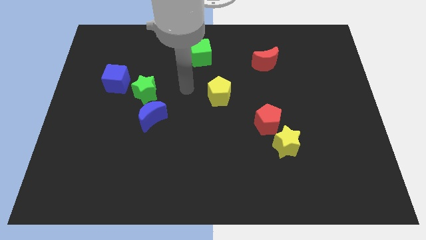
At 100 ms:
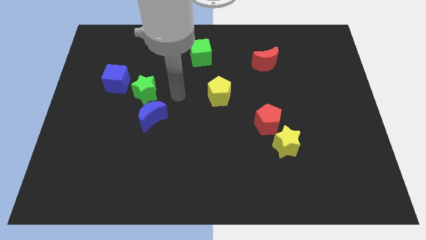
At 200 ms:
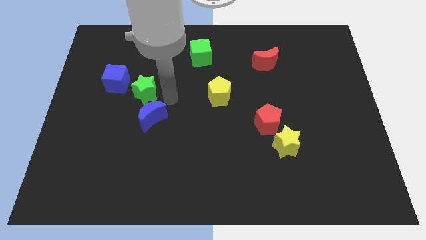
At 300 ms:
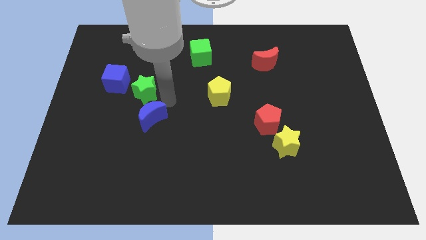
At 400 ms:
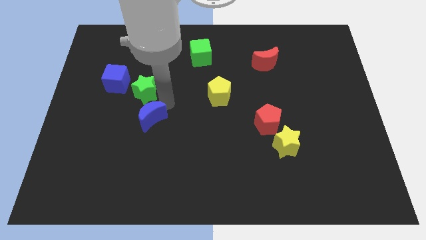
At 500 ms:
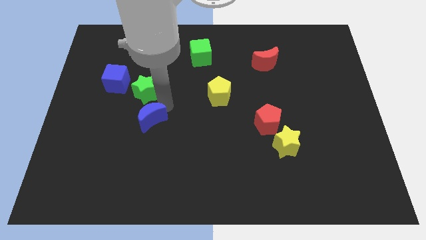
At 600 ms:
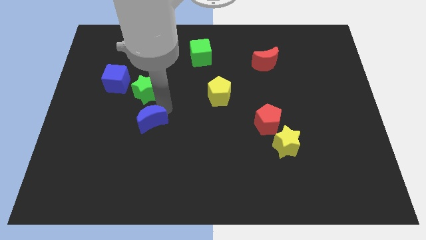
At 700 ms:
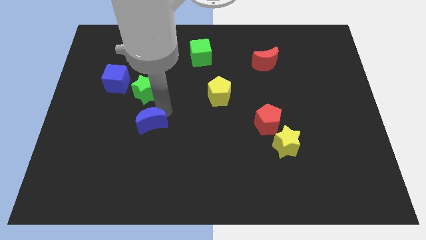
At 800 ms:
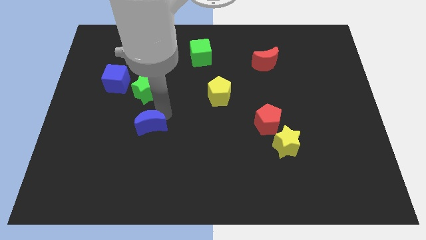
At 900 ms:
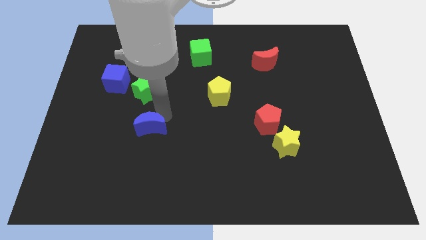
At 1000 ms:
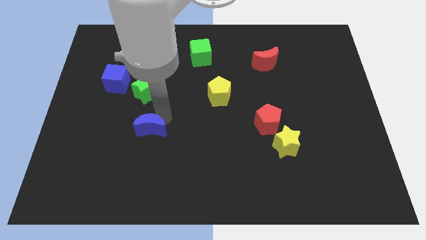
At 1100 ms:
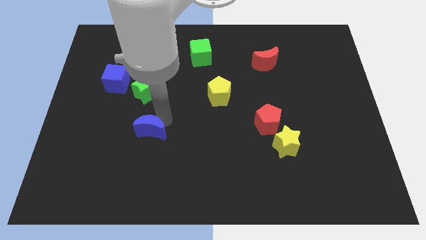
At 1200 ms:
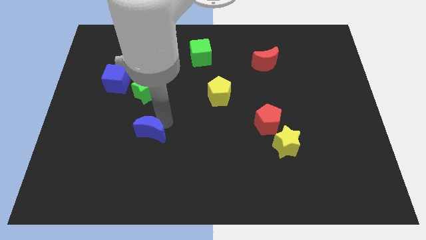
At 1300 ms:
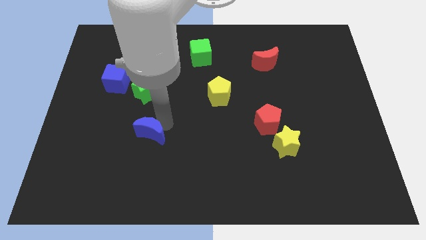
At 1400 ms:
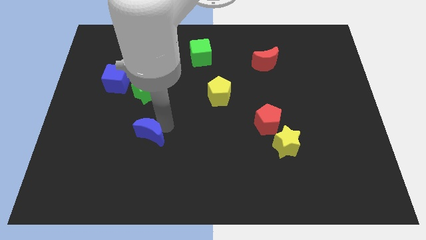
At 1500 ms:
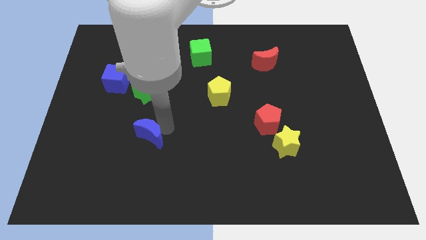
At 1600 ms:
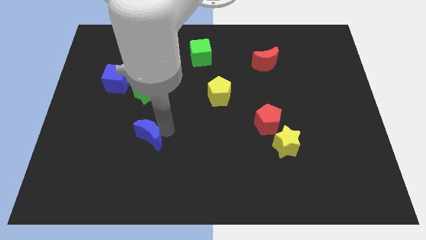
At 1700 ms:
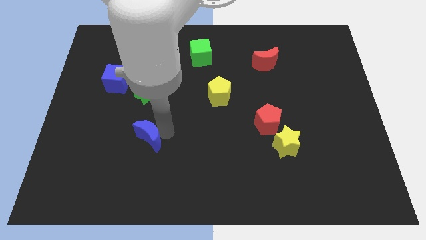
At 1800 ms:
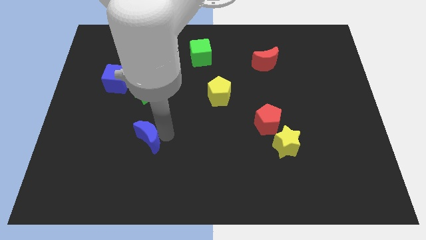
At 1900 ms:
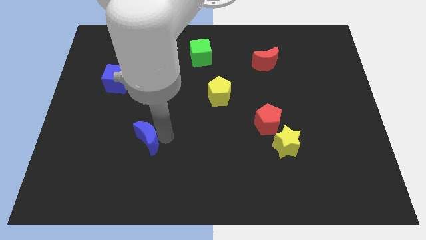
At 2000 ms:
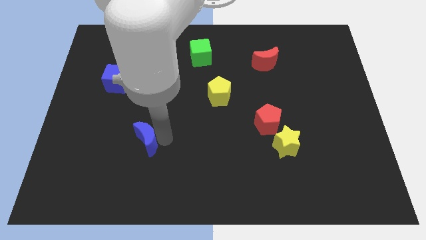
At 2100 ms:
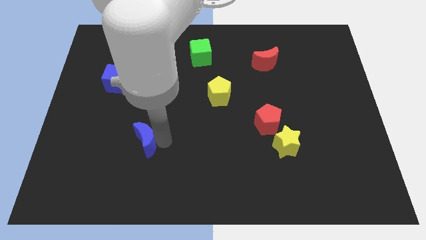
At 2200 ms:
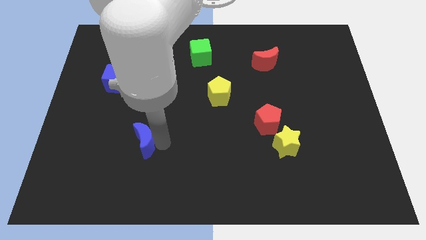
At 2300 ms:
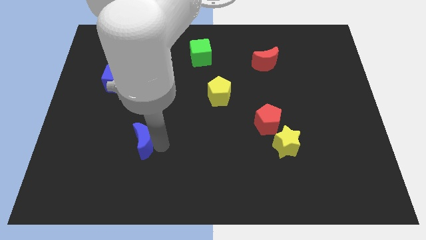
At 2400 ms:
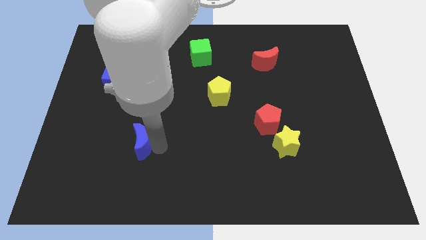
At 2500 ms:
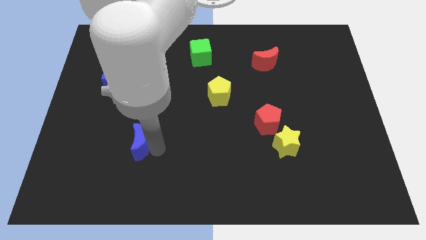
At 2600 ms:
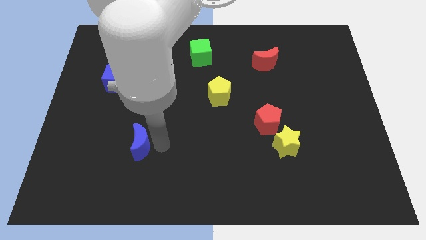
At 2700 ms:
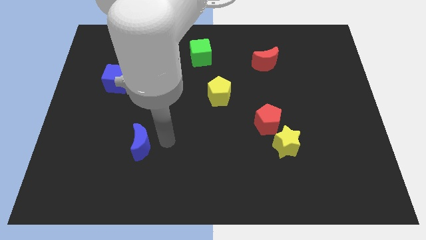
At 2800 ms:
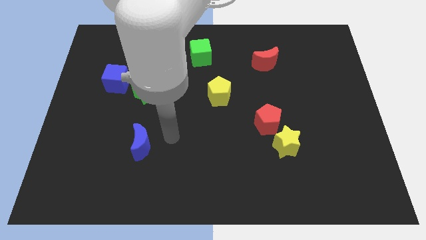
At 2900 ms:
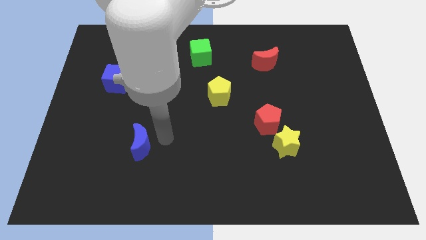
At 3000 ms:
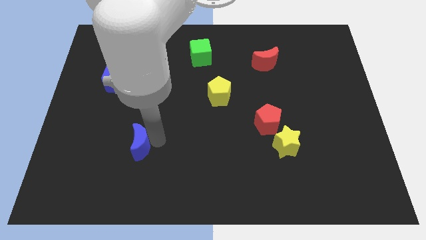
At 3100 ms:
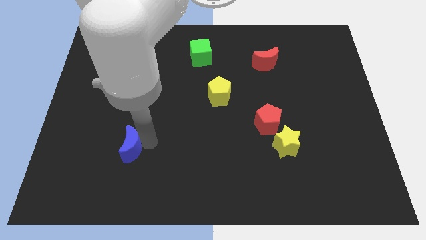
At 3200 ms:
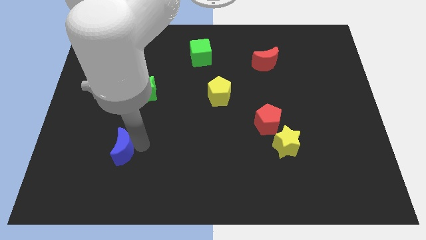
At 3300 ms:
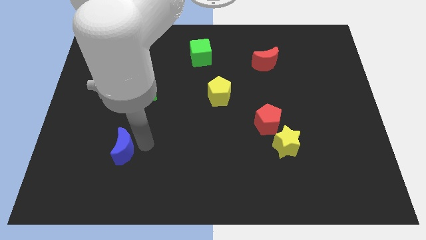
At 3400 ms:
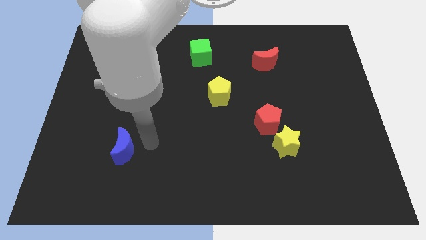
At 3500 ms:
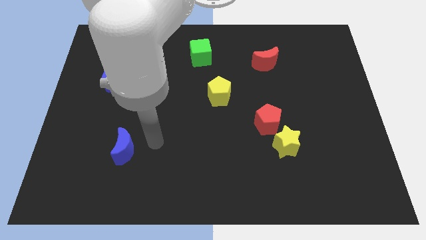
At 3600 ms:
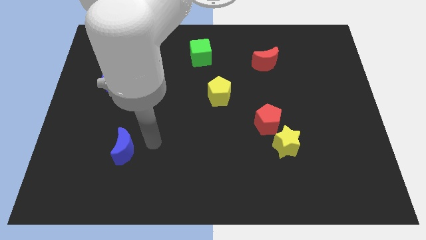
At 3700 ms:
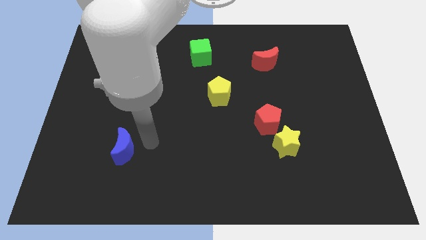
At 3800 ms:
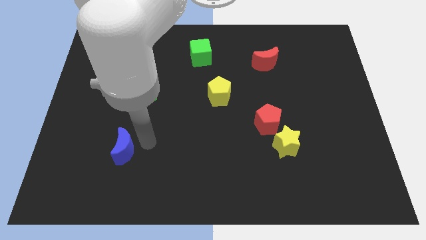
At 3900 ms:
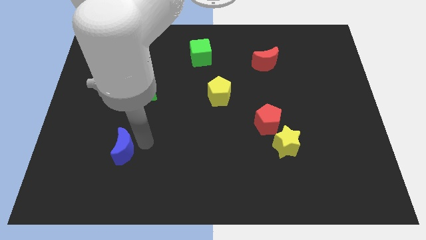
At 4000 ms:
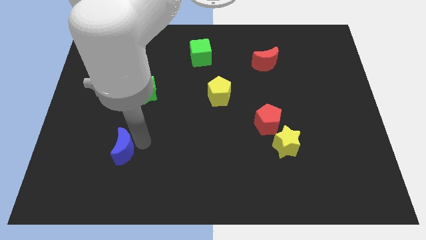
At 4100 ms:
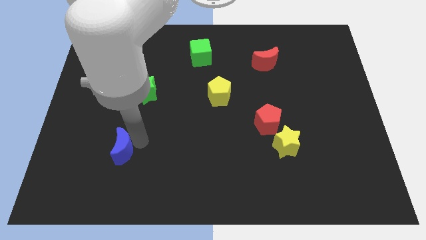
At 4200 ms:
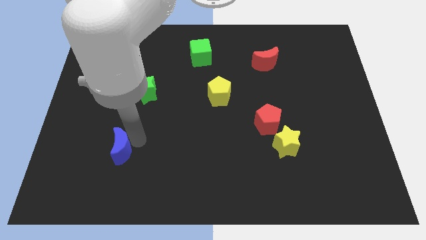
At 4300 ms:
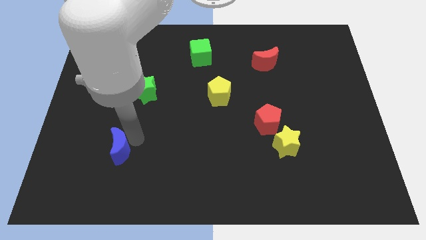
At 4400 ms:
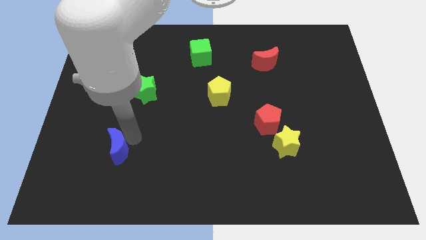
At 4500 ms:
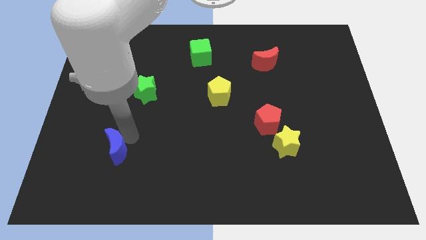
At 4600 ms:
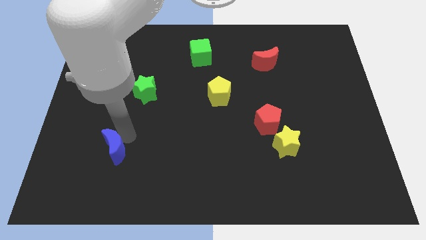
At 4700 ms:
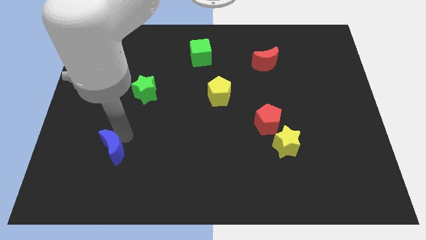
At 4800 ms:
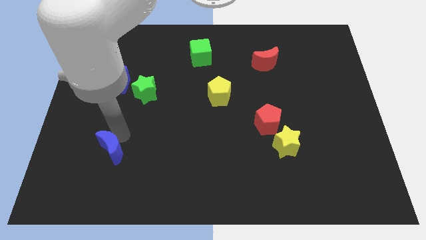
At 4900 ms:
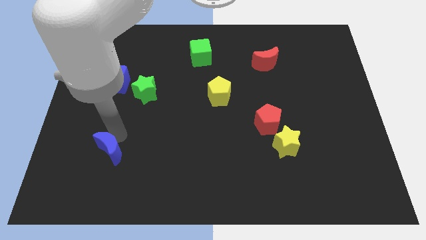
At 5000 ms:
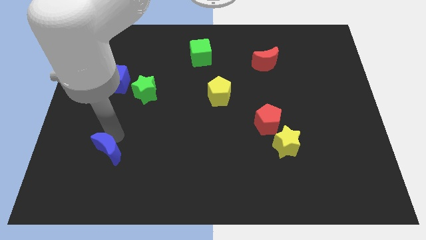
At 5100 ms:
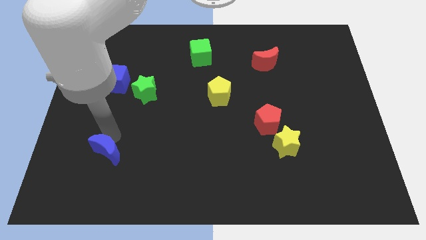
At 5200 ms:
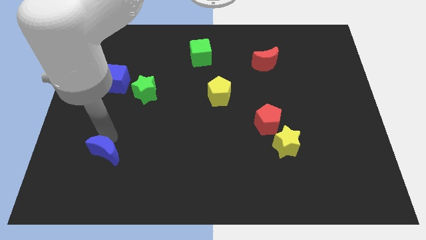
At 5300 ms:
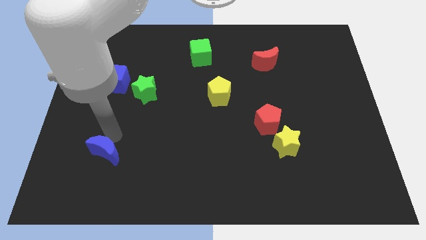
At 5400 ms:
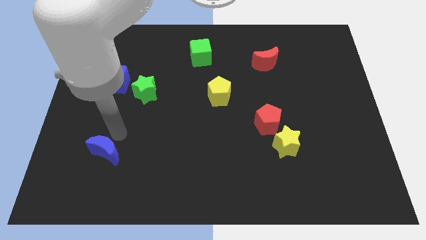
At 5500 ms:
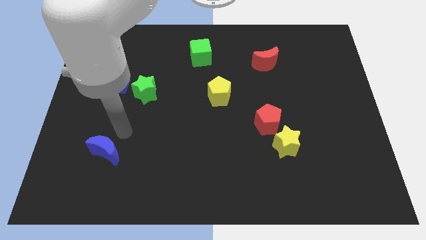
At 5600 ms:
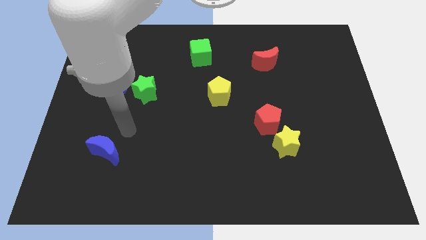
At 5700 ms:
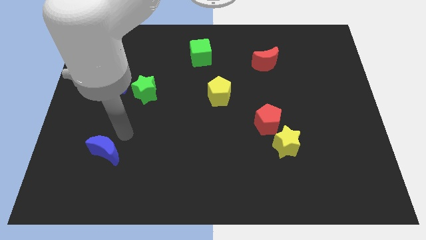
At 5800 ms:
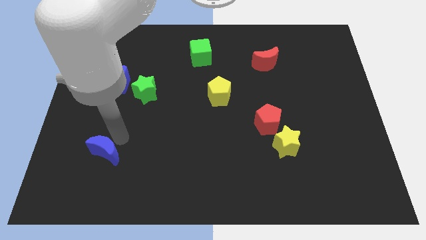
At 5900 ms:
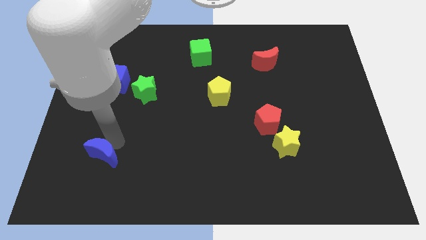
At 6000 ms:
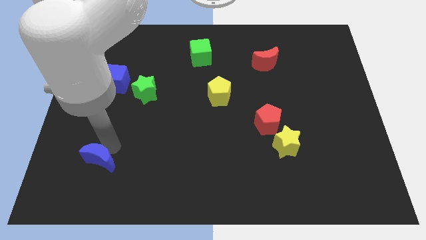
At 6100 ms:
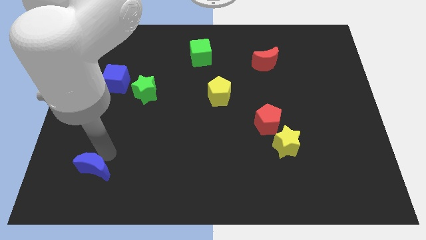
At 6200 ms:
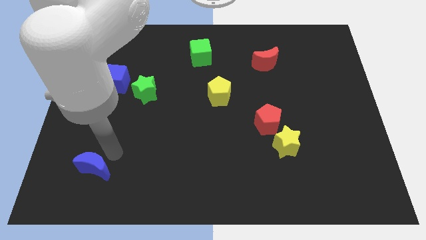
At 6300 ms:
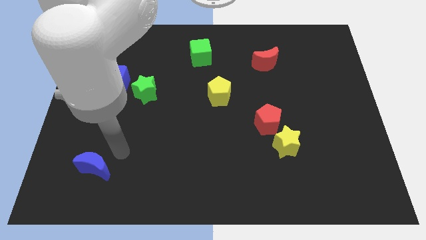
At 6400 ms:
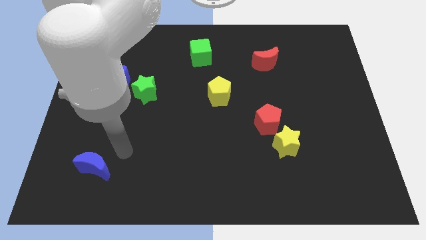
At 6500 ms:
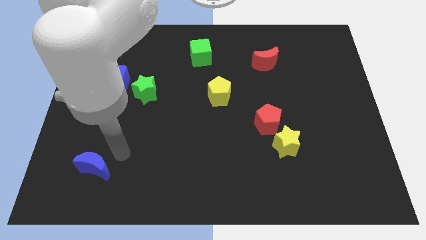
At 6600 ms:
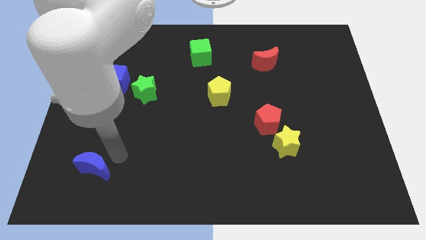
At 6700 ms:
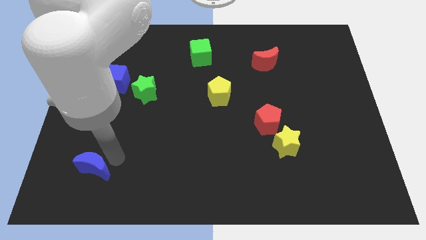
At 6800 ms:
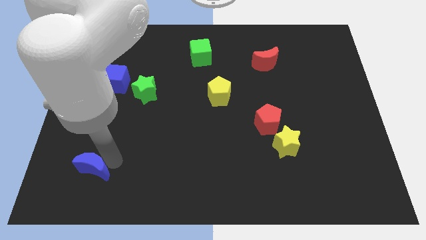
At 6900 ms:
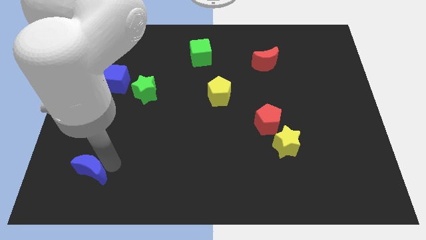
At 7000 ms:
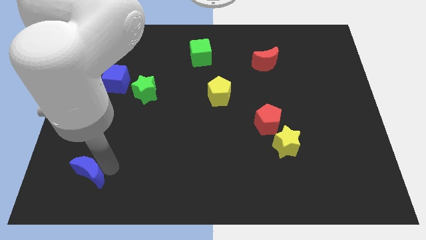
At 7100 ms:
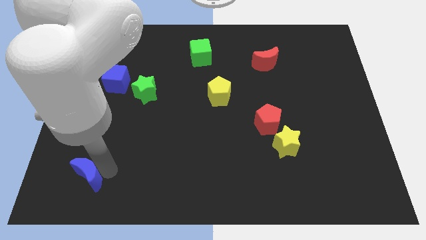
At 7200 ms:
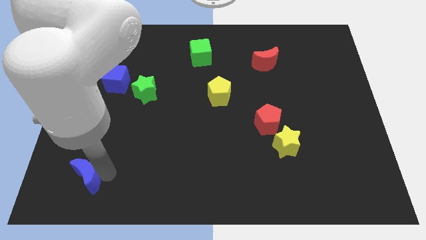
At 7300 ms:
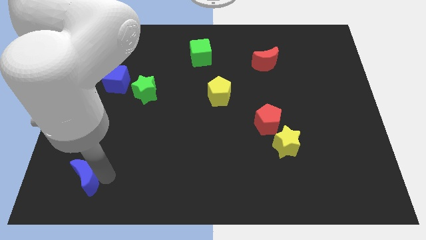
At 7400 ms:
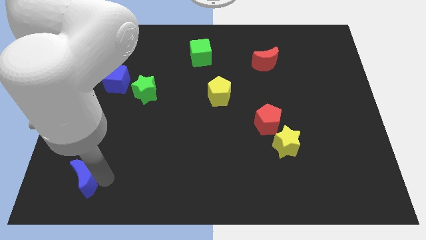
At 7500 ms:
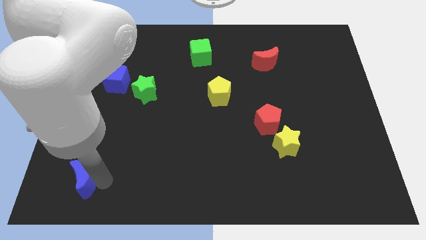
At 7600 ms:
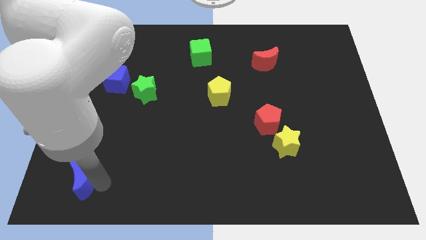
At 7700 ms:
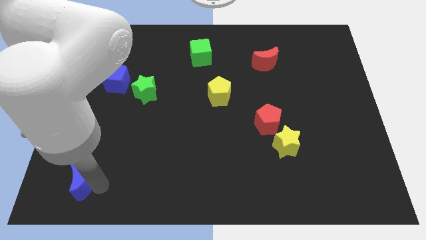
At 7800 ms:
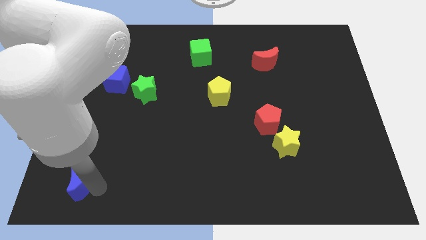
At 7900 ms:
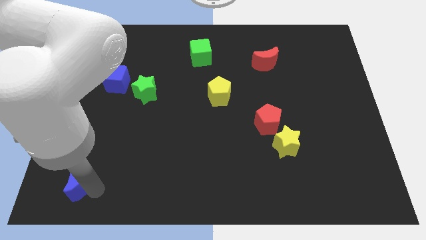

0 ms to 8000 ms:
move the blue moon to the bottom left of the board

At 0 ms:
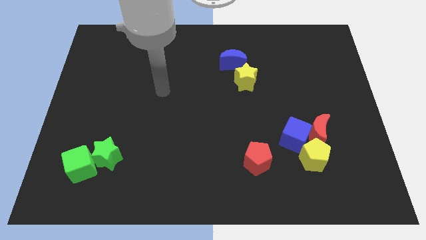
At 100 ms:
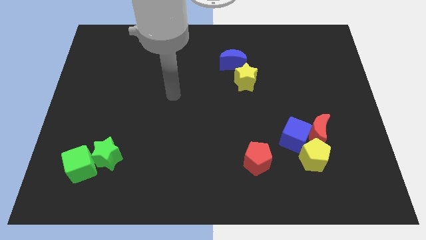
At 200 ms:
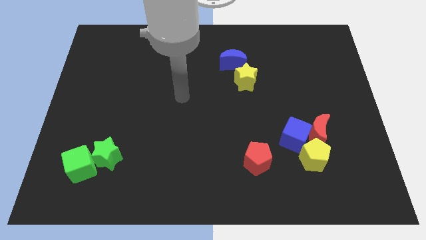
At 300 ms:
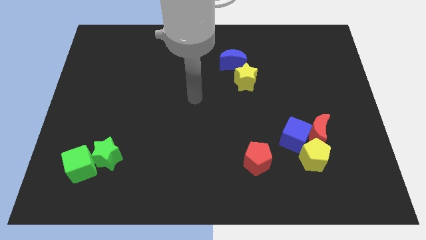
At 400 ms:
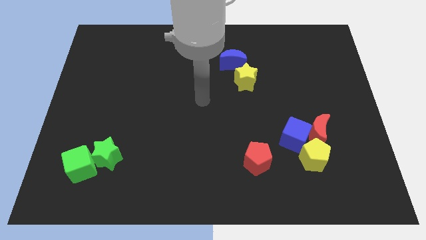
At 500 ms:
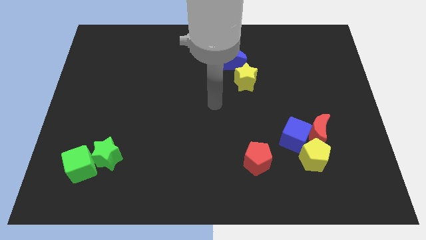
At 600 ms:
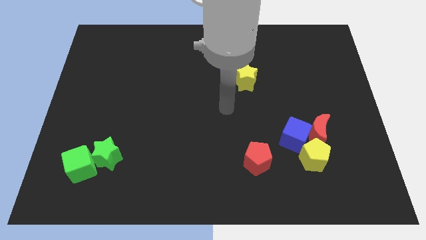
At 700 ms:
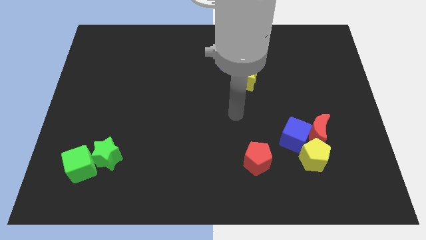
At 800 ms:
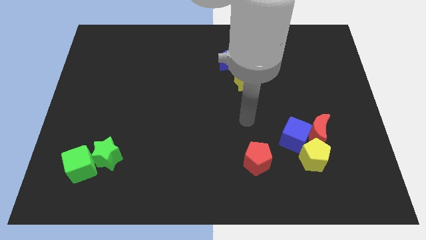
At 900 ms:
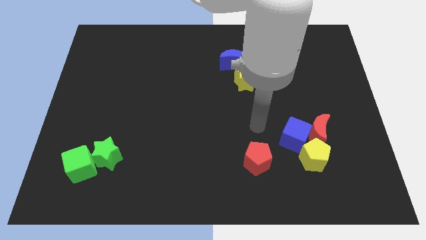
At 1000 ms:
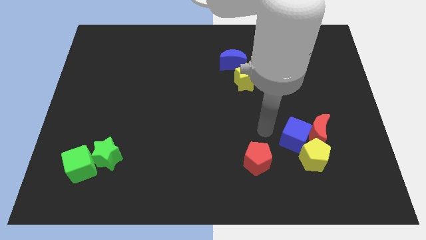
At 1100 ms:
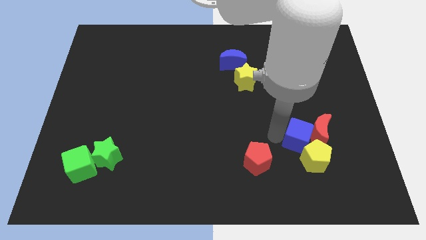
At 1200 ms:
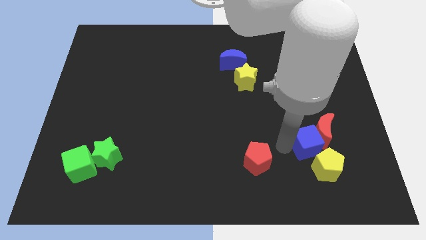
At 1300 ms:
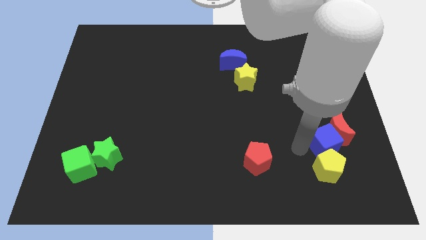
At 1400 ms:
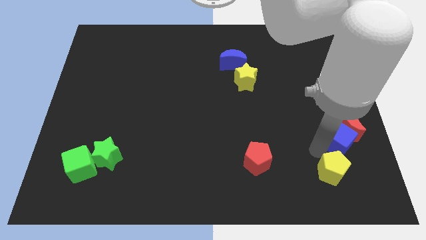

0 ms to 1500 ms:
slide the red moon to the right side
